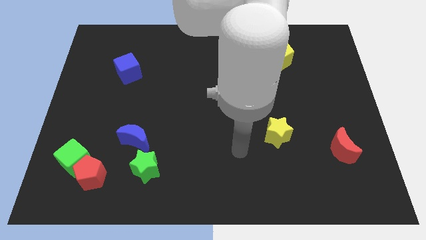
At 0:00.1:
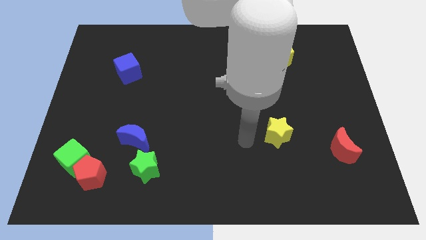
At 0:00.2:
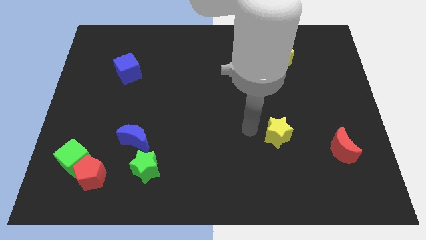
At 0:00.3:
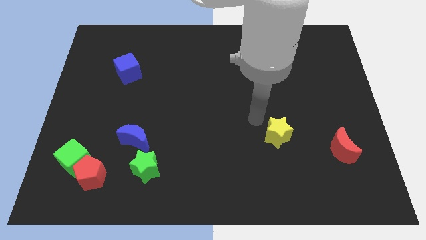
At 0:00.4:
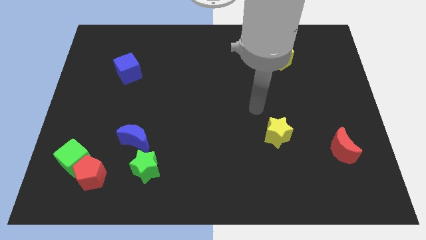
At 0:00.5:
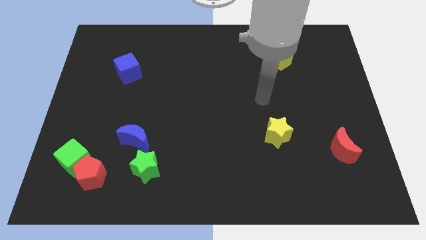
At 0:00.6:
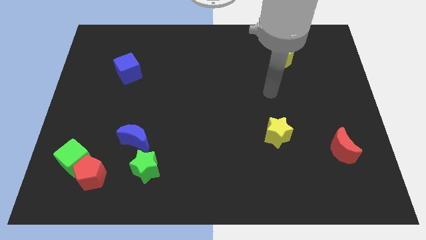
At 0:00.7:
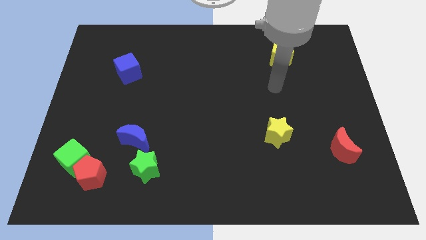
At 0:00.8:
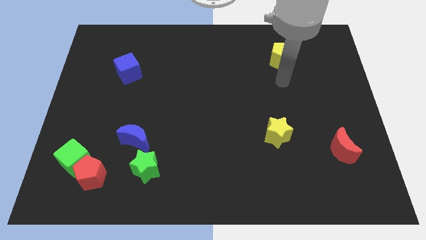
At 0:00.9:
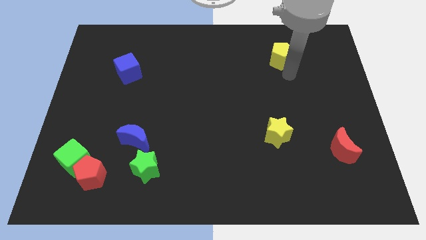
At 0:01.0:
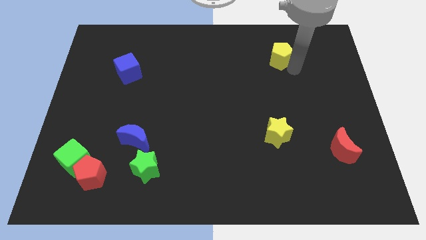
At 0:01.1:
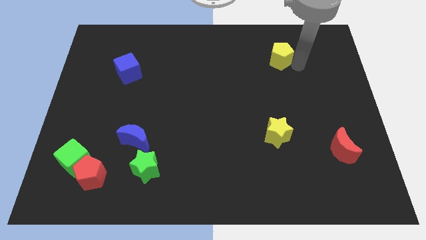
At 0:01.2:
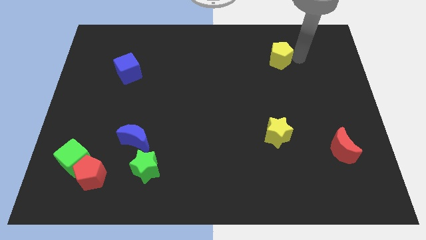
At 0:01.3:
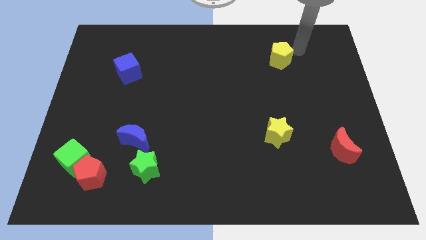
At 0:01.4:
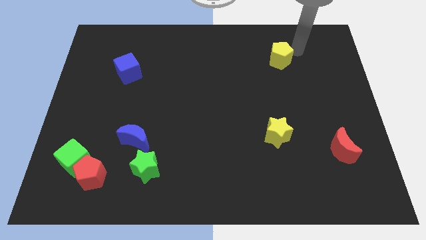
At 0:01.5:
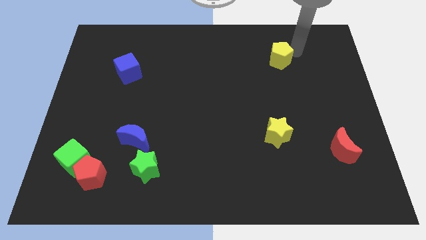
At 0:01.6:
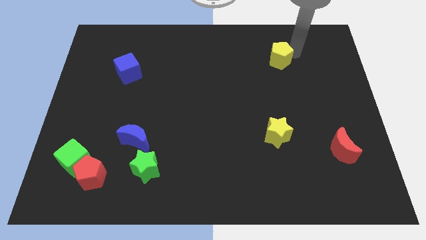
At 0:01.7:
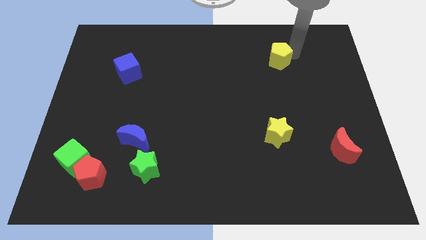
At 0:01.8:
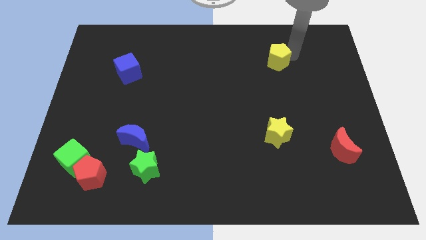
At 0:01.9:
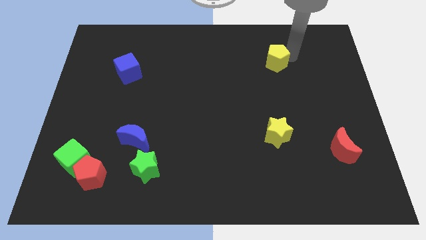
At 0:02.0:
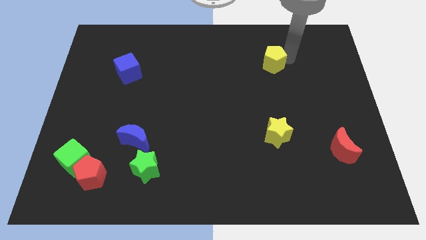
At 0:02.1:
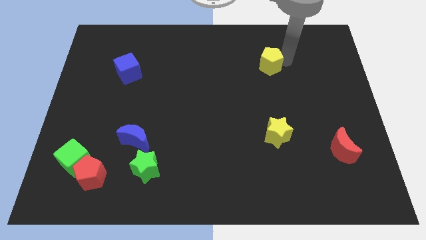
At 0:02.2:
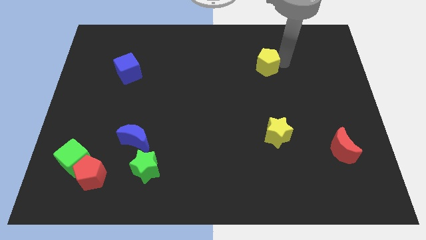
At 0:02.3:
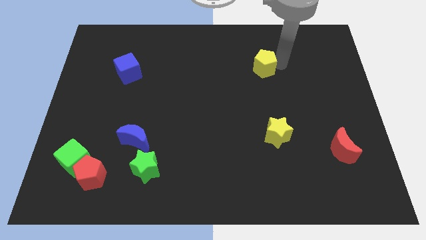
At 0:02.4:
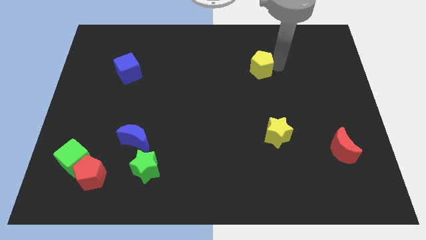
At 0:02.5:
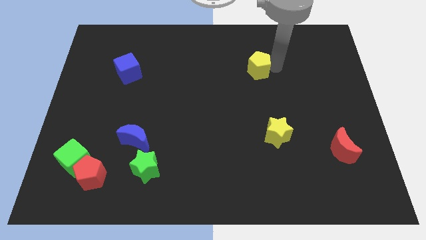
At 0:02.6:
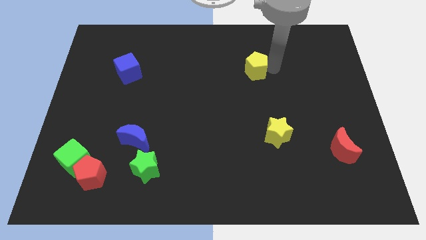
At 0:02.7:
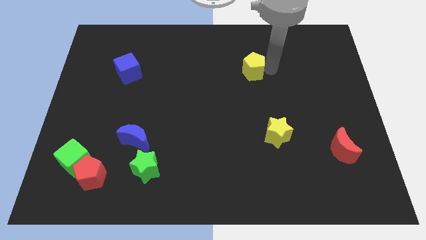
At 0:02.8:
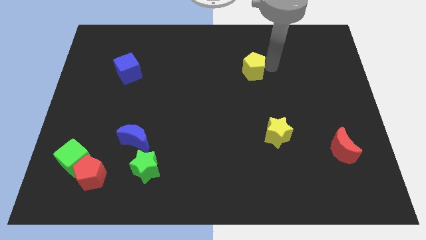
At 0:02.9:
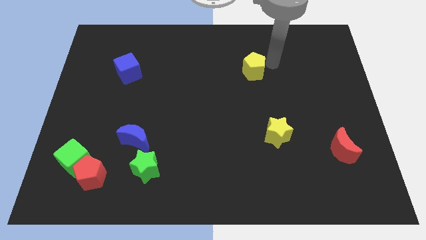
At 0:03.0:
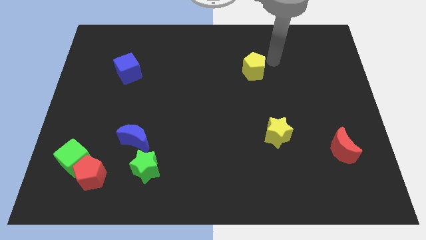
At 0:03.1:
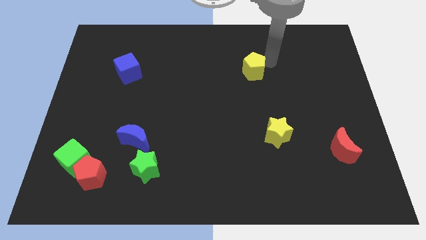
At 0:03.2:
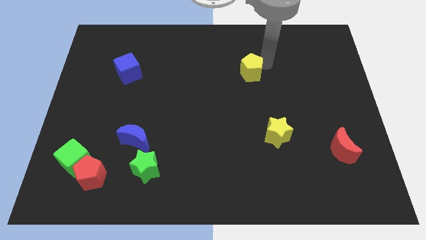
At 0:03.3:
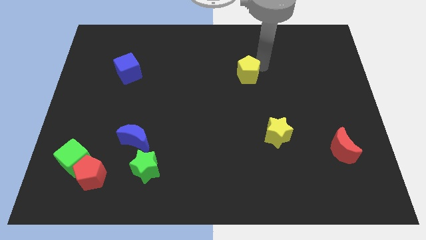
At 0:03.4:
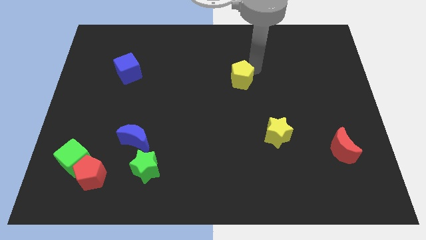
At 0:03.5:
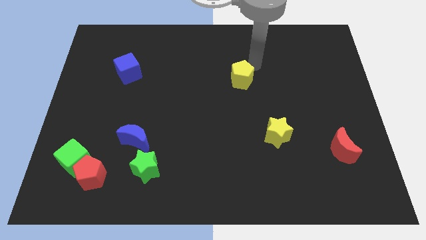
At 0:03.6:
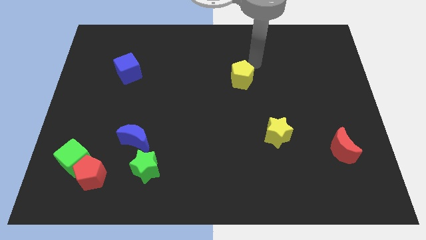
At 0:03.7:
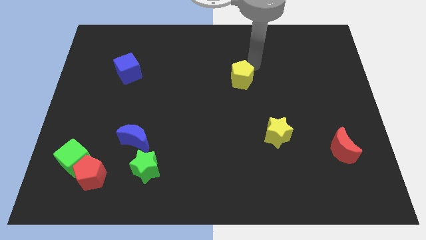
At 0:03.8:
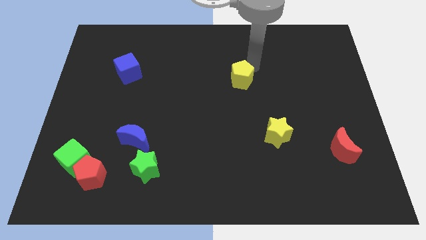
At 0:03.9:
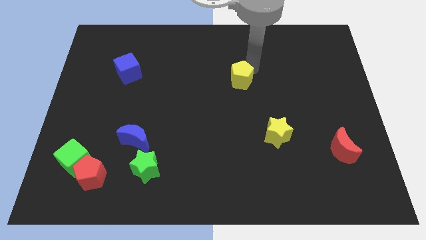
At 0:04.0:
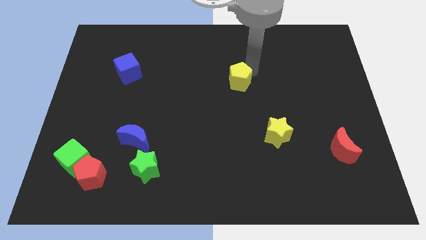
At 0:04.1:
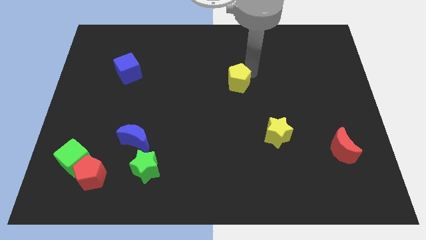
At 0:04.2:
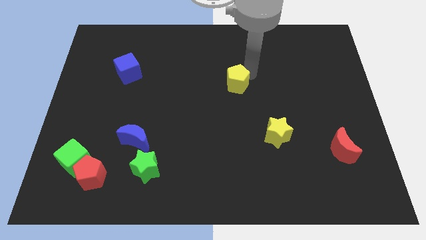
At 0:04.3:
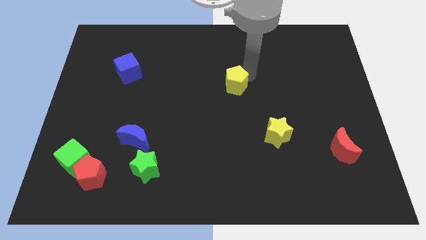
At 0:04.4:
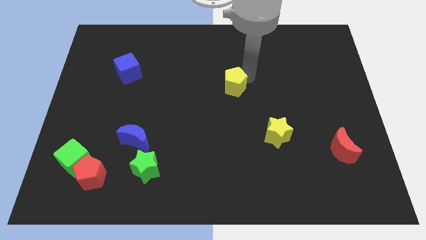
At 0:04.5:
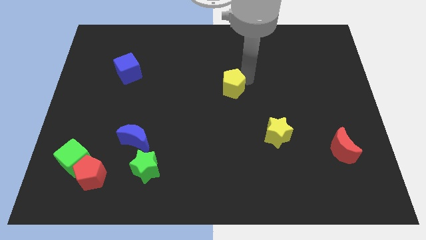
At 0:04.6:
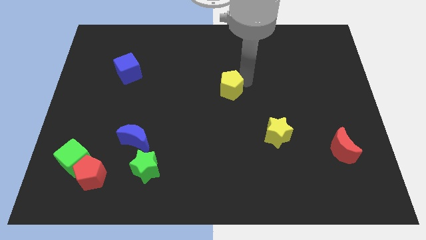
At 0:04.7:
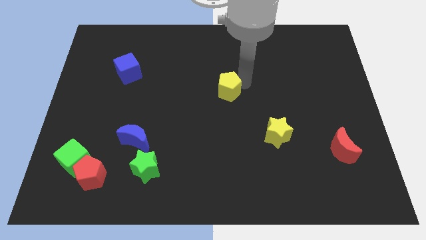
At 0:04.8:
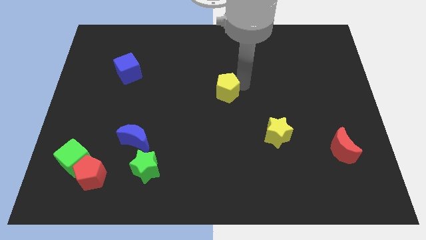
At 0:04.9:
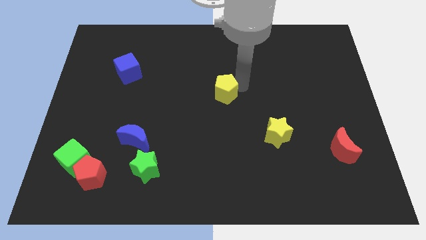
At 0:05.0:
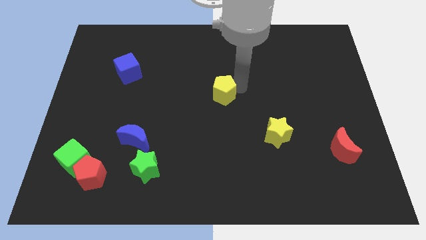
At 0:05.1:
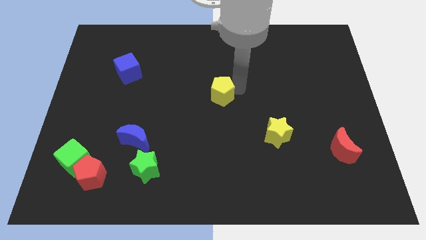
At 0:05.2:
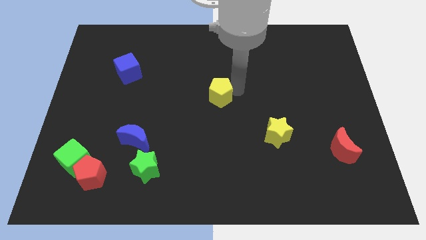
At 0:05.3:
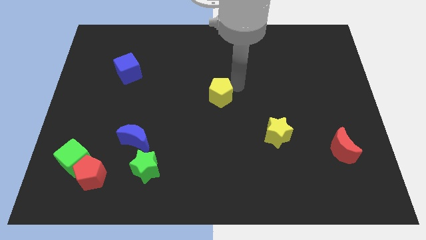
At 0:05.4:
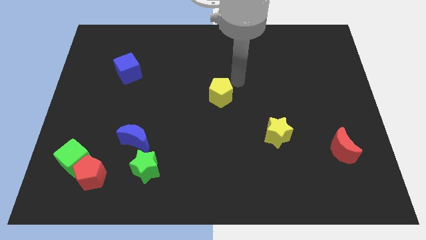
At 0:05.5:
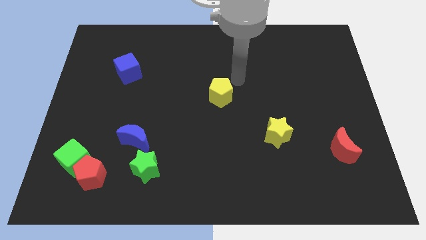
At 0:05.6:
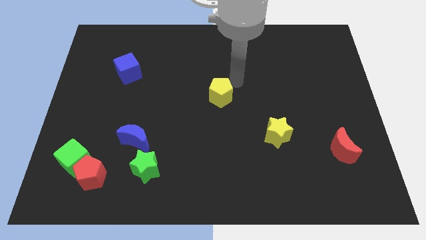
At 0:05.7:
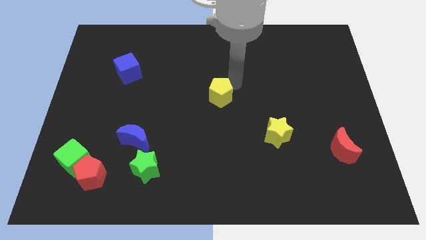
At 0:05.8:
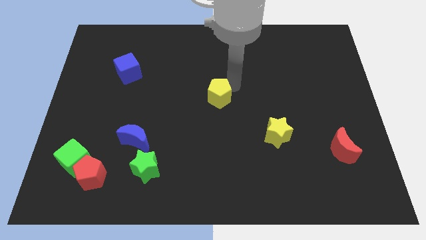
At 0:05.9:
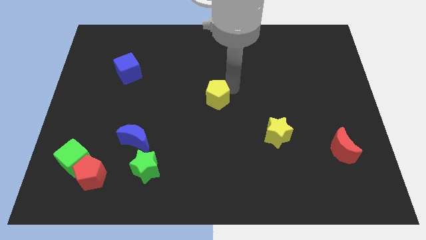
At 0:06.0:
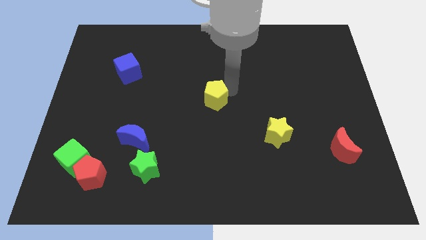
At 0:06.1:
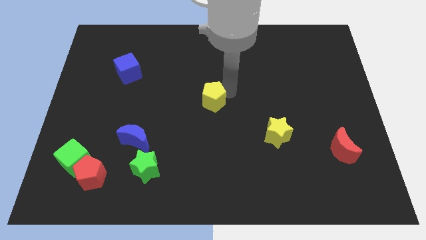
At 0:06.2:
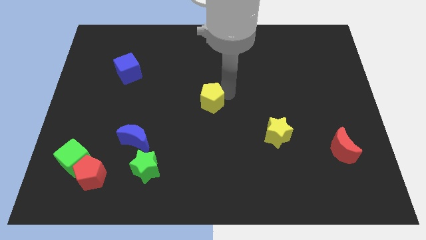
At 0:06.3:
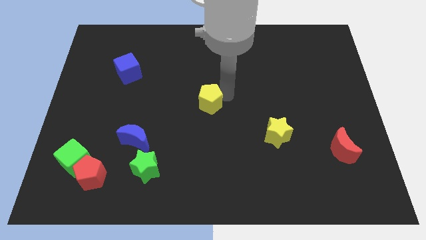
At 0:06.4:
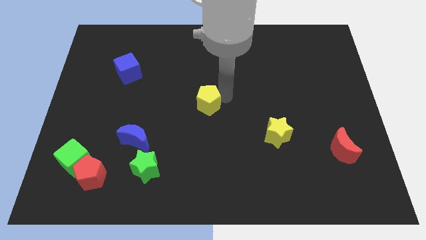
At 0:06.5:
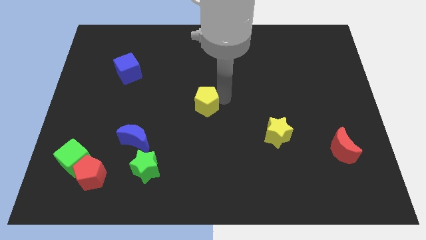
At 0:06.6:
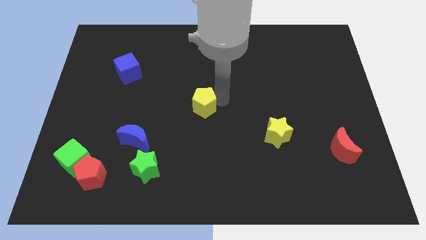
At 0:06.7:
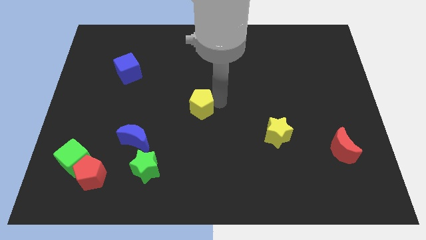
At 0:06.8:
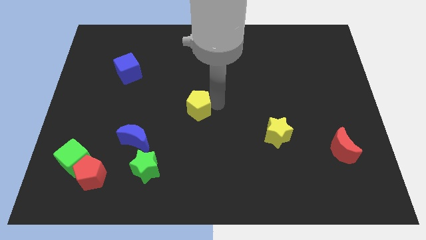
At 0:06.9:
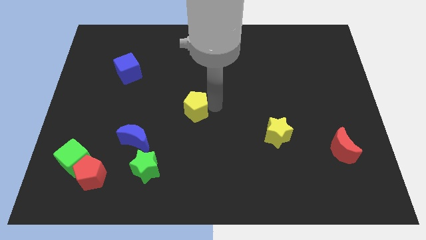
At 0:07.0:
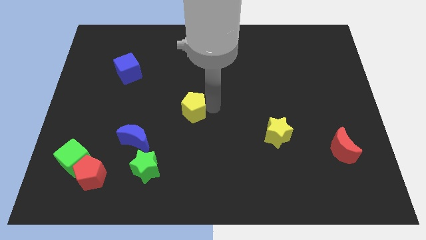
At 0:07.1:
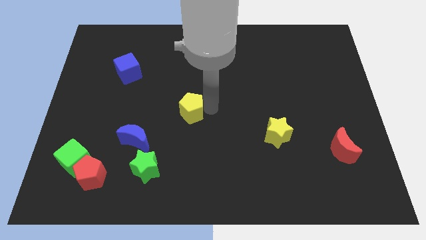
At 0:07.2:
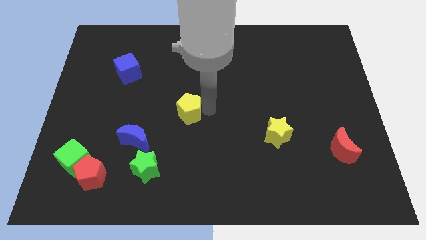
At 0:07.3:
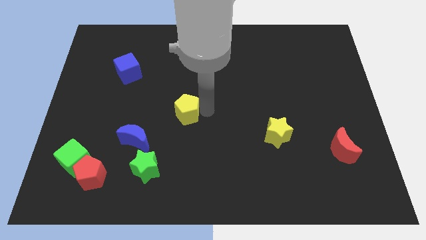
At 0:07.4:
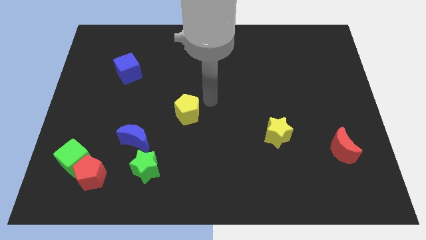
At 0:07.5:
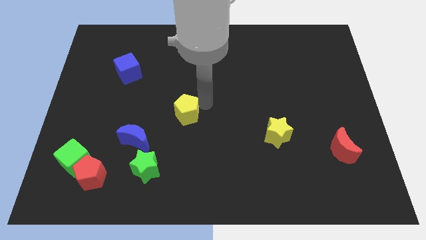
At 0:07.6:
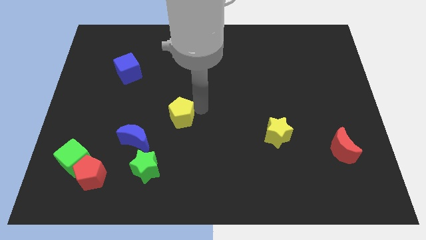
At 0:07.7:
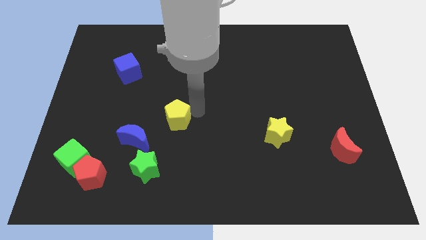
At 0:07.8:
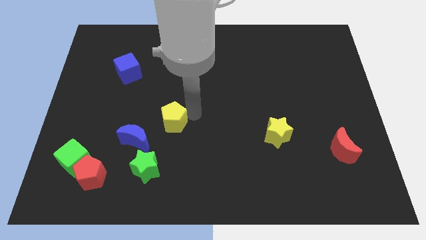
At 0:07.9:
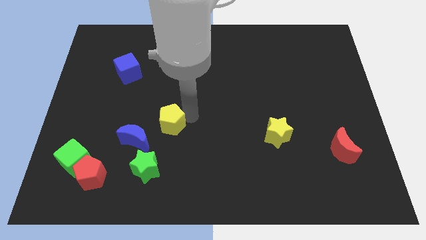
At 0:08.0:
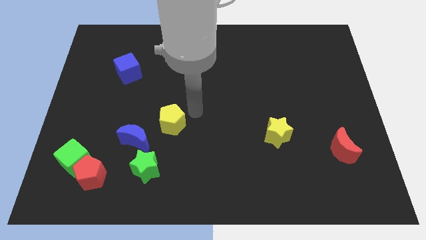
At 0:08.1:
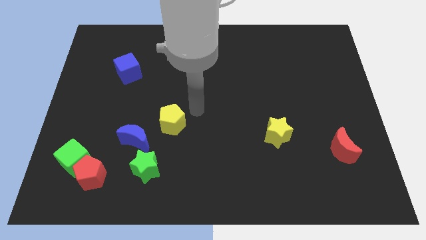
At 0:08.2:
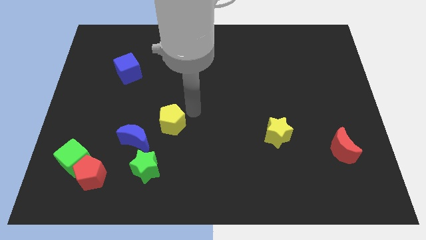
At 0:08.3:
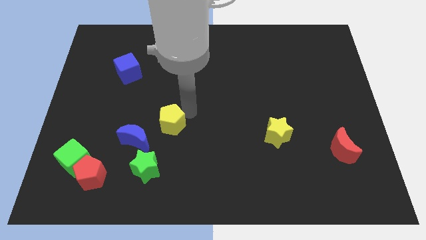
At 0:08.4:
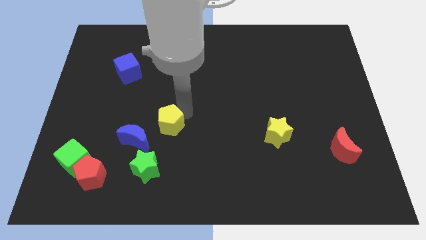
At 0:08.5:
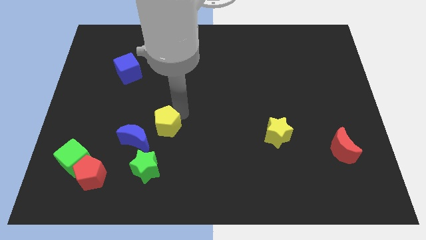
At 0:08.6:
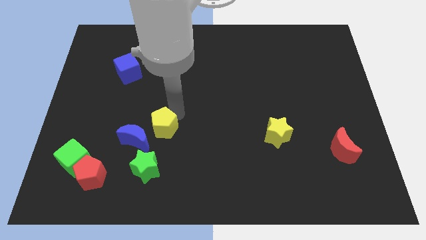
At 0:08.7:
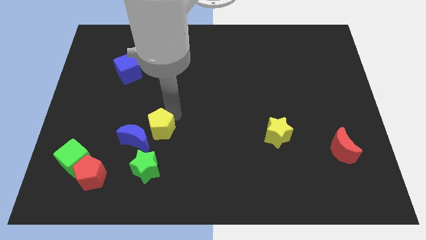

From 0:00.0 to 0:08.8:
put the yellow pentagon next to the blue moon
